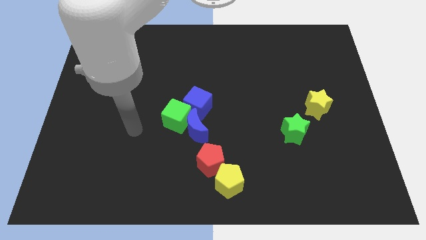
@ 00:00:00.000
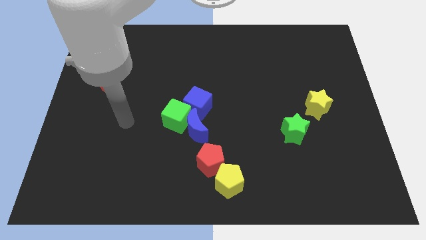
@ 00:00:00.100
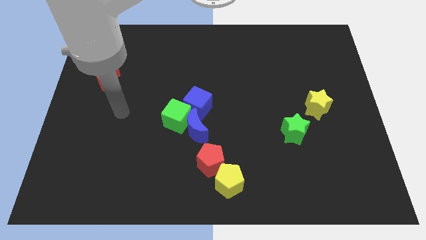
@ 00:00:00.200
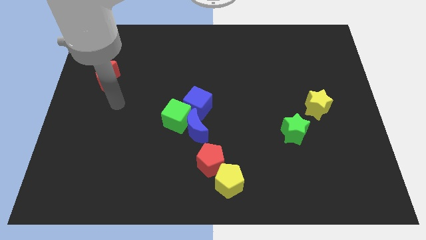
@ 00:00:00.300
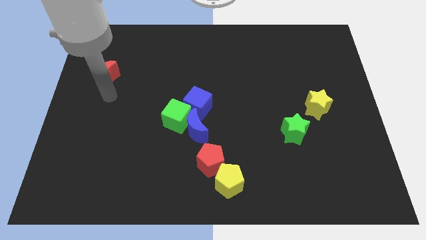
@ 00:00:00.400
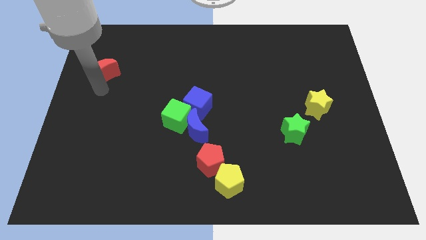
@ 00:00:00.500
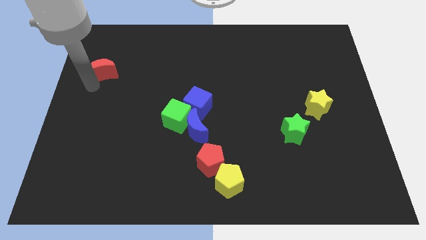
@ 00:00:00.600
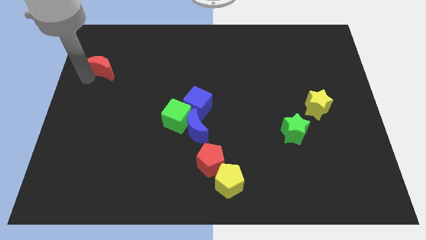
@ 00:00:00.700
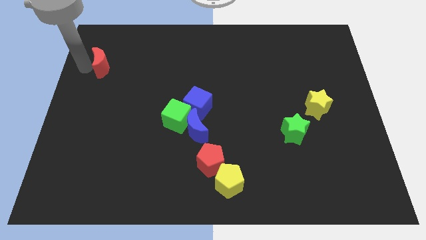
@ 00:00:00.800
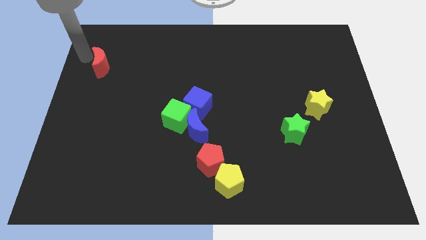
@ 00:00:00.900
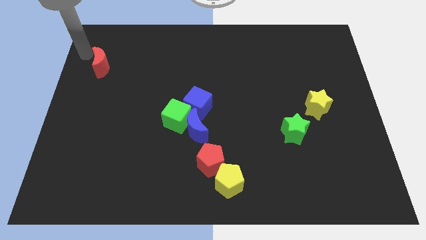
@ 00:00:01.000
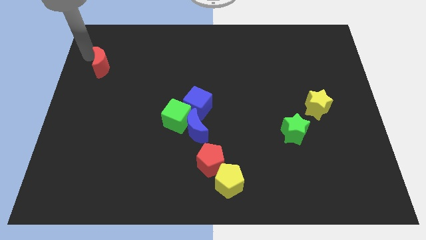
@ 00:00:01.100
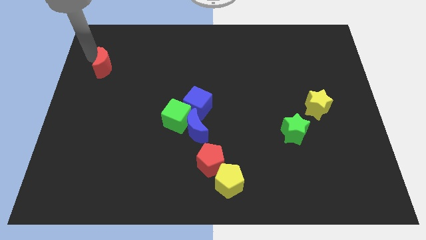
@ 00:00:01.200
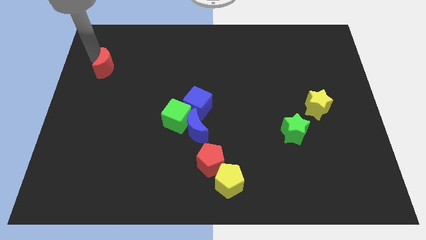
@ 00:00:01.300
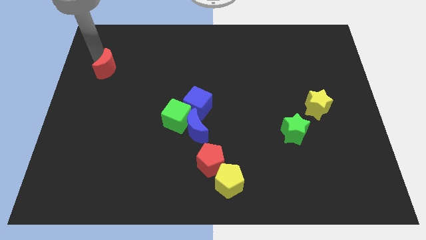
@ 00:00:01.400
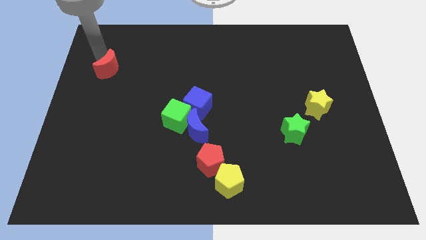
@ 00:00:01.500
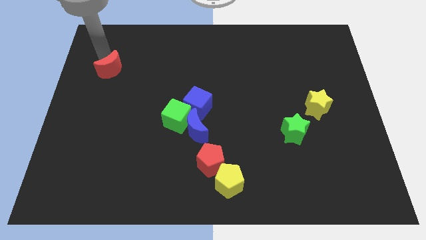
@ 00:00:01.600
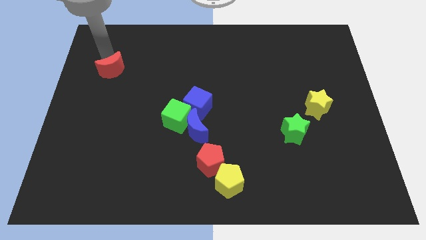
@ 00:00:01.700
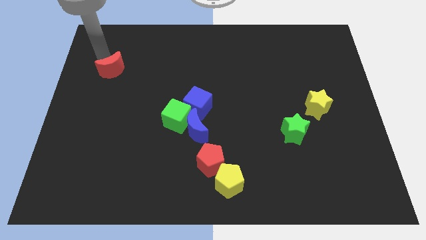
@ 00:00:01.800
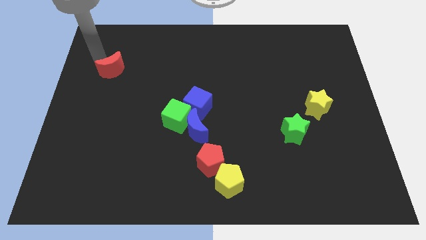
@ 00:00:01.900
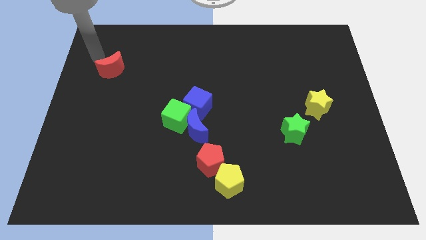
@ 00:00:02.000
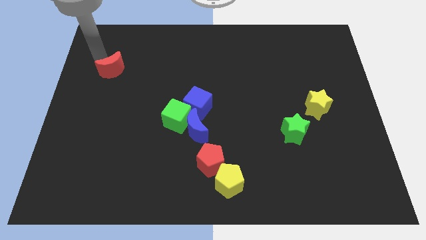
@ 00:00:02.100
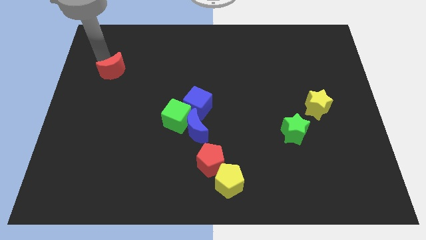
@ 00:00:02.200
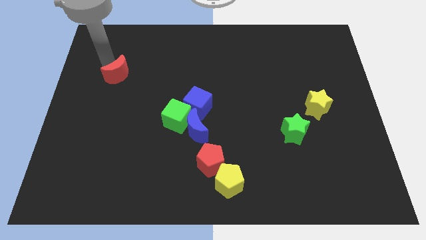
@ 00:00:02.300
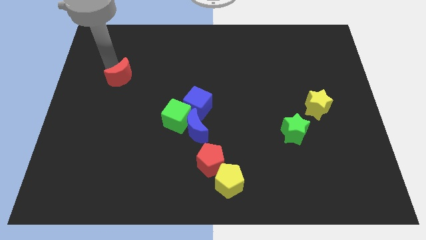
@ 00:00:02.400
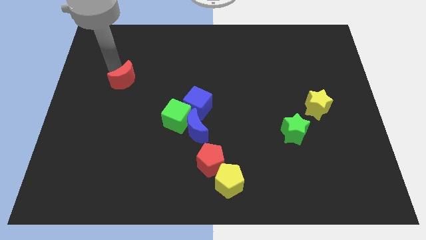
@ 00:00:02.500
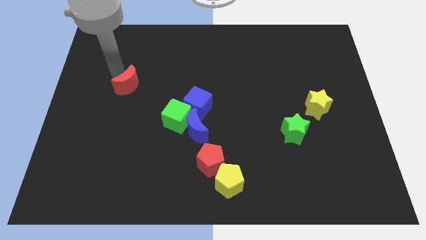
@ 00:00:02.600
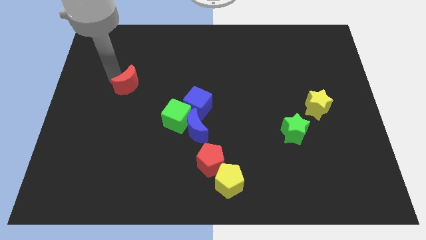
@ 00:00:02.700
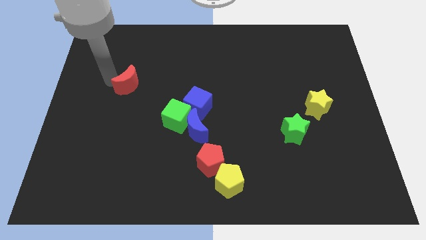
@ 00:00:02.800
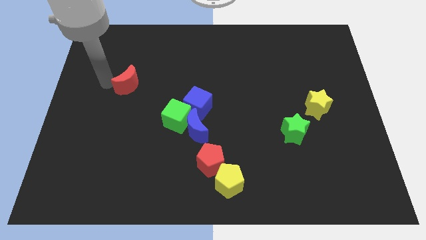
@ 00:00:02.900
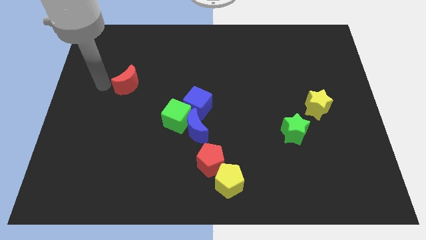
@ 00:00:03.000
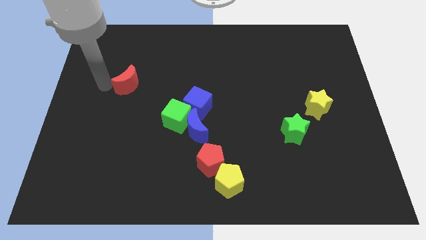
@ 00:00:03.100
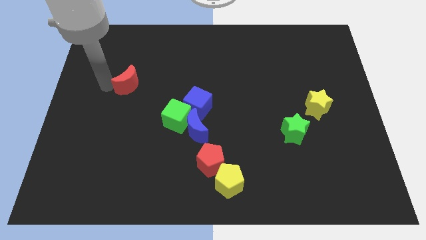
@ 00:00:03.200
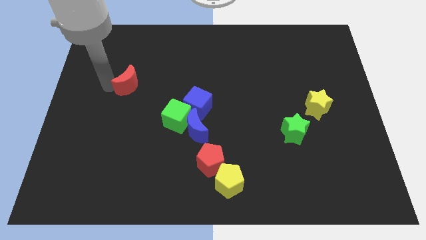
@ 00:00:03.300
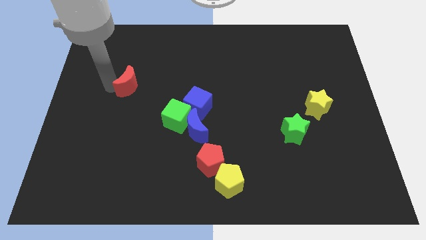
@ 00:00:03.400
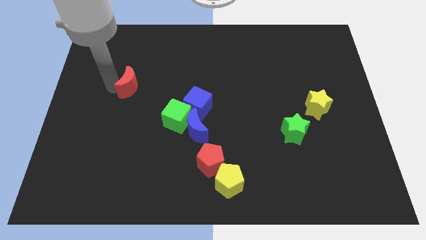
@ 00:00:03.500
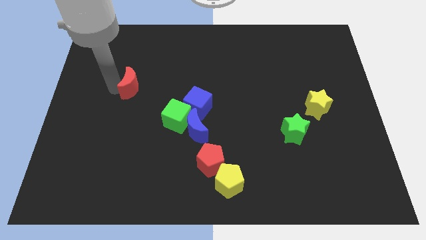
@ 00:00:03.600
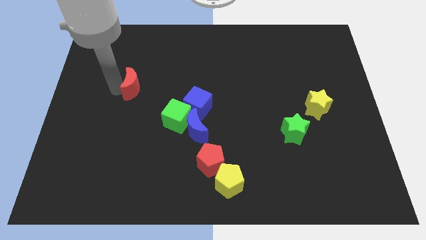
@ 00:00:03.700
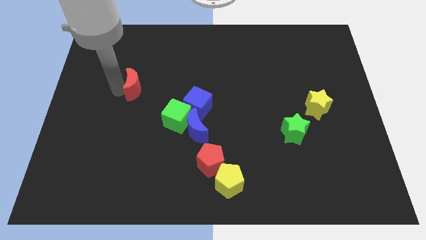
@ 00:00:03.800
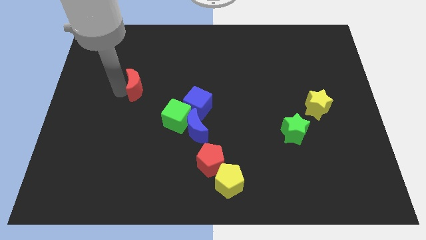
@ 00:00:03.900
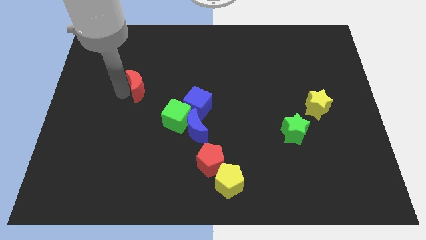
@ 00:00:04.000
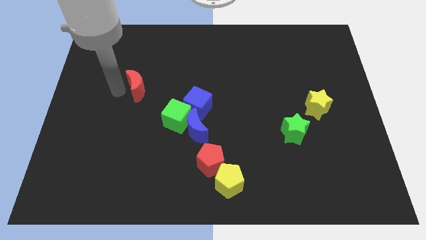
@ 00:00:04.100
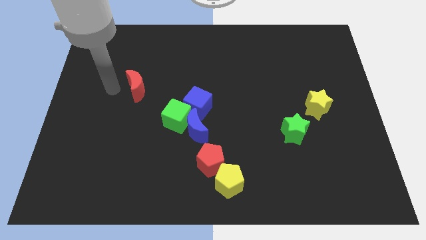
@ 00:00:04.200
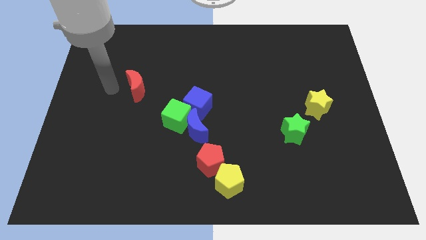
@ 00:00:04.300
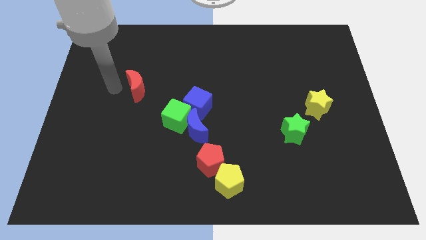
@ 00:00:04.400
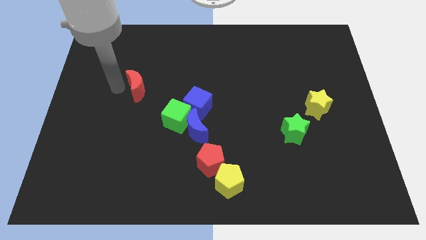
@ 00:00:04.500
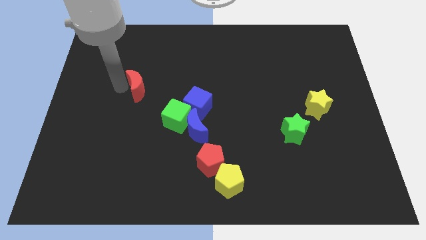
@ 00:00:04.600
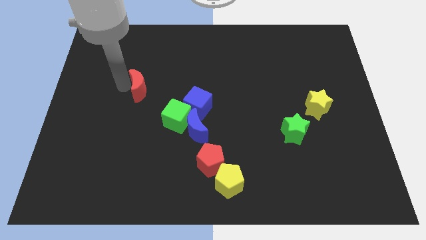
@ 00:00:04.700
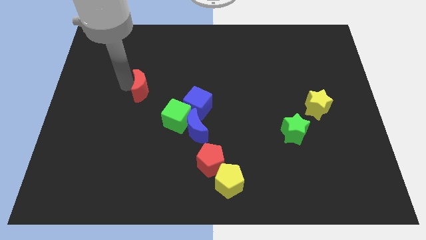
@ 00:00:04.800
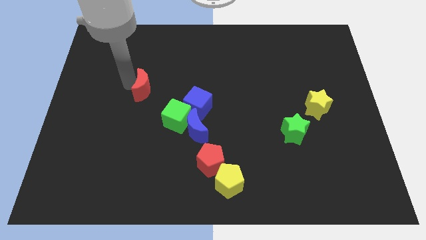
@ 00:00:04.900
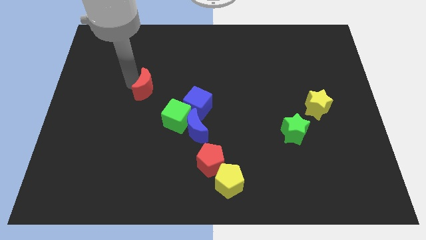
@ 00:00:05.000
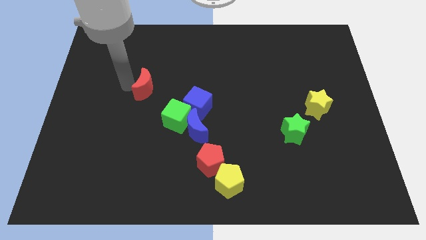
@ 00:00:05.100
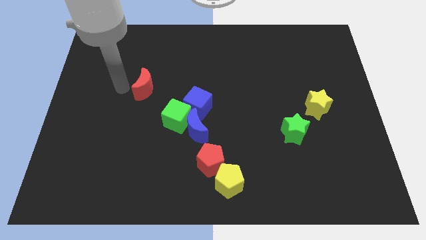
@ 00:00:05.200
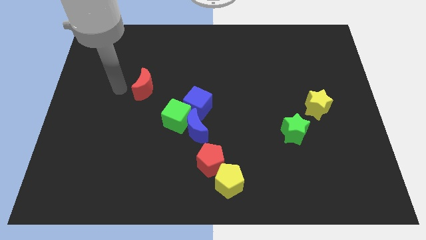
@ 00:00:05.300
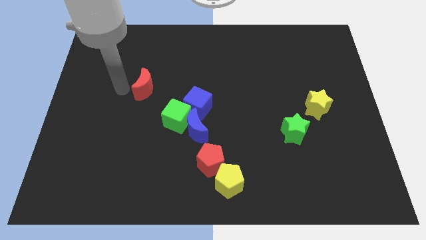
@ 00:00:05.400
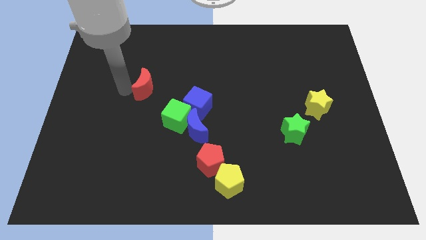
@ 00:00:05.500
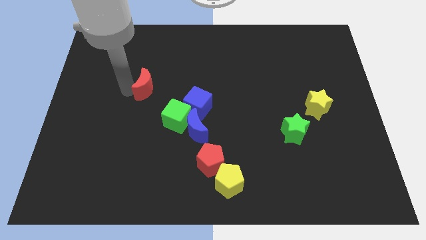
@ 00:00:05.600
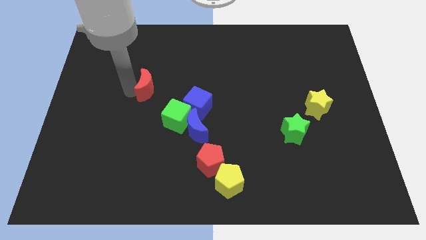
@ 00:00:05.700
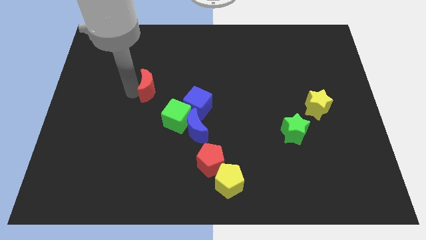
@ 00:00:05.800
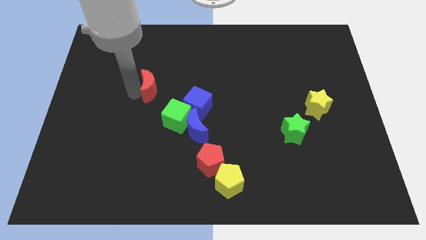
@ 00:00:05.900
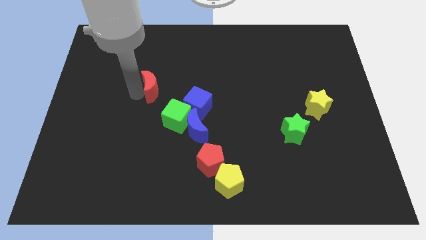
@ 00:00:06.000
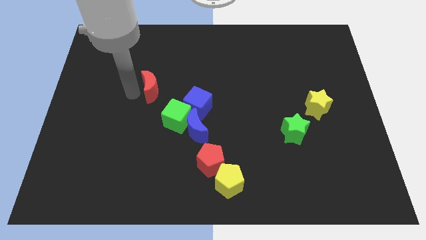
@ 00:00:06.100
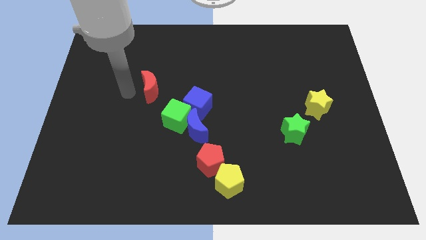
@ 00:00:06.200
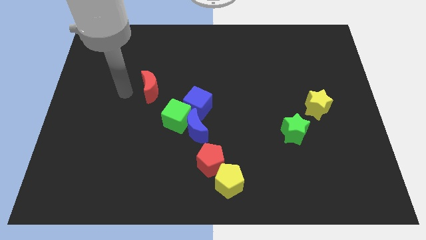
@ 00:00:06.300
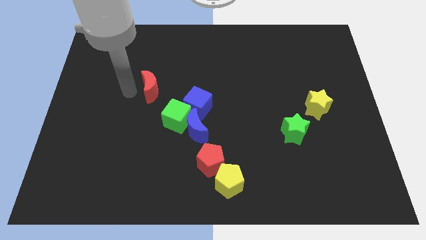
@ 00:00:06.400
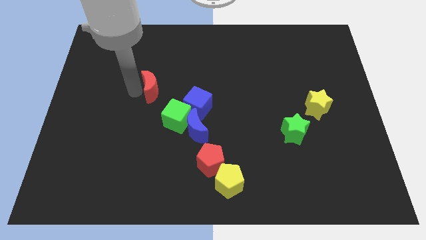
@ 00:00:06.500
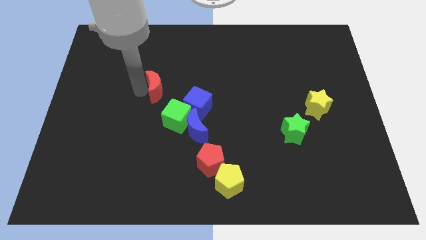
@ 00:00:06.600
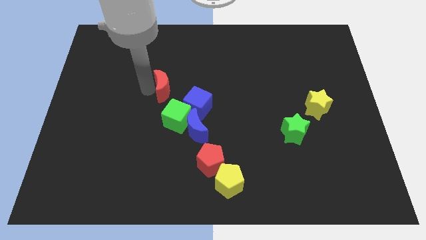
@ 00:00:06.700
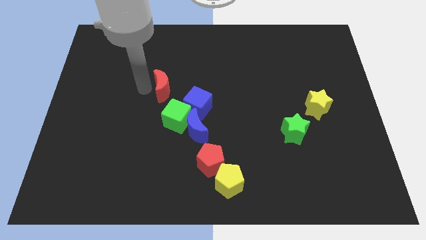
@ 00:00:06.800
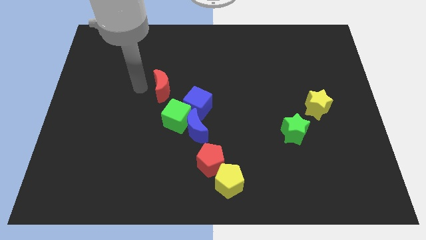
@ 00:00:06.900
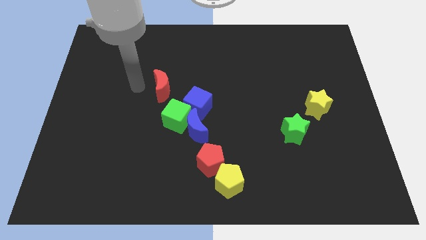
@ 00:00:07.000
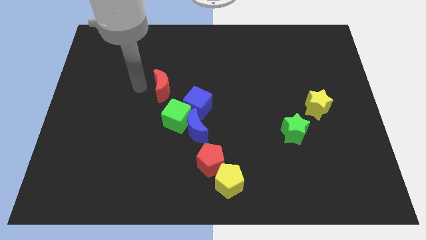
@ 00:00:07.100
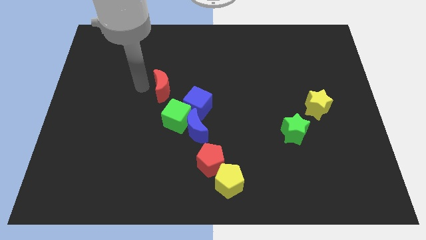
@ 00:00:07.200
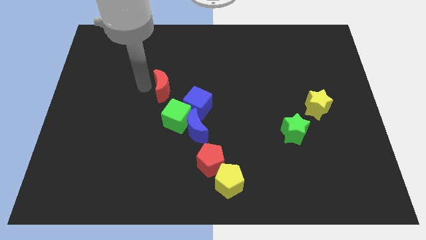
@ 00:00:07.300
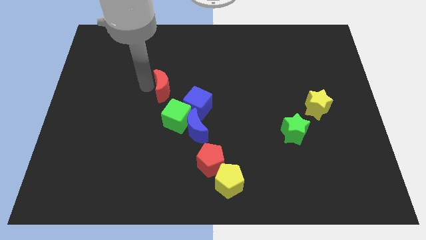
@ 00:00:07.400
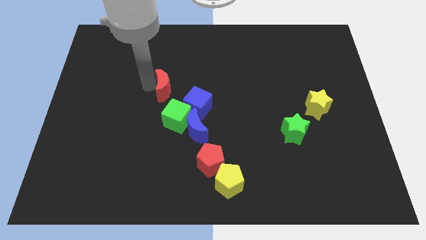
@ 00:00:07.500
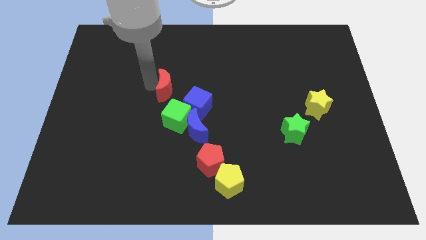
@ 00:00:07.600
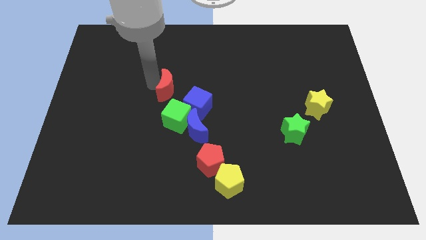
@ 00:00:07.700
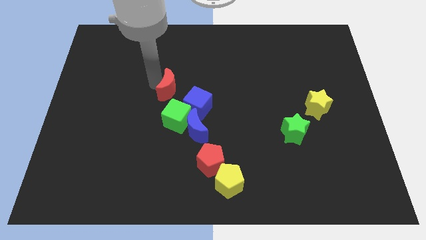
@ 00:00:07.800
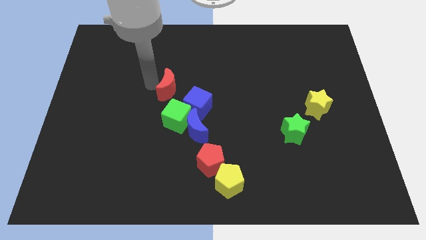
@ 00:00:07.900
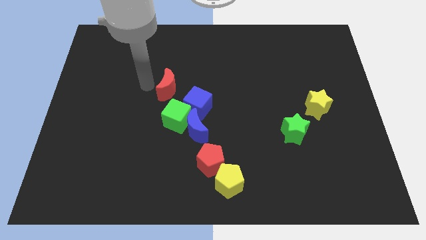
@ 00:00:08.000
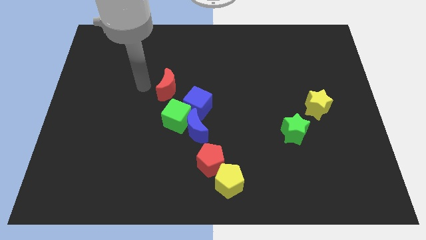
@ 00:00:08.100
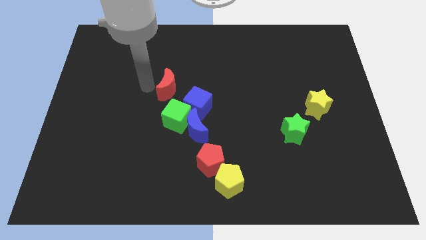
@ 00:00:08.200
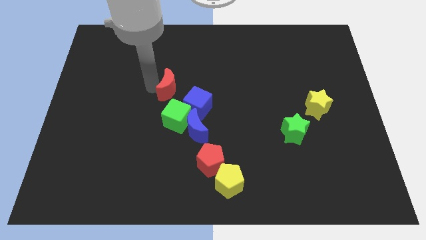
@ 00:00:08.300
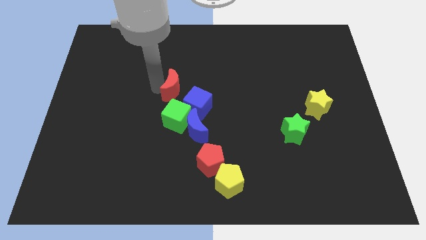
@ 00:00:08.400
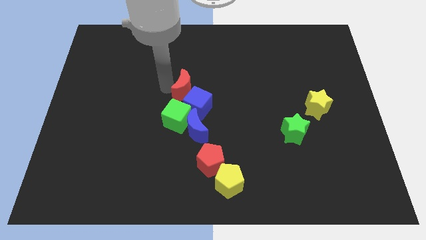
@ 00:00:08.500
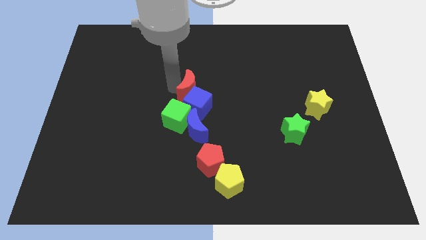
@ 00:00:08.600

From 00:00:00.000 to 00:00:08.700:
slide the red moon to the top right of the green cube
